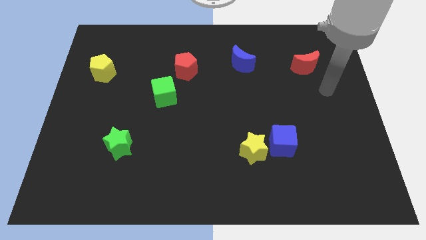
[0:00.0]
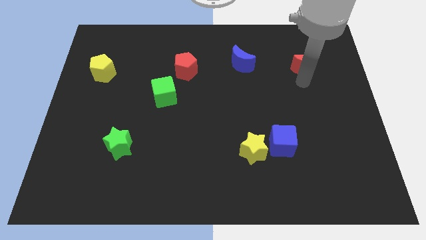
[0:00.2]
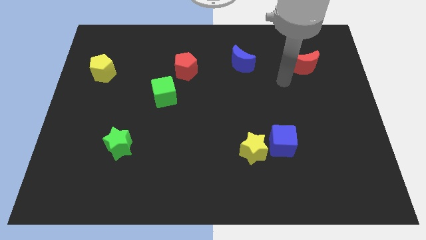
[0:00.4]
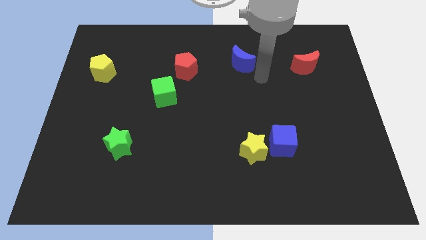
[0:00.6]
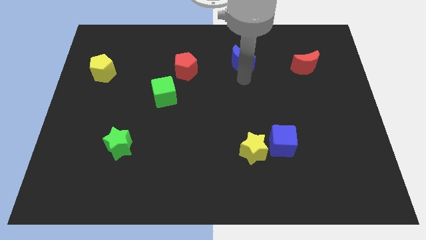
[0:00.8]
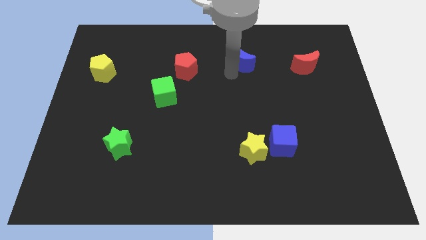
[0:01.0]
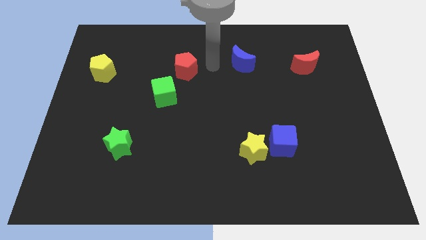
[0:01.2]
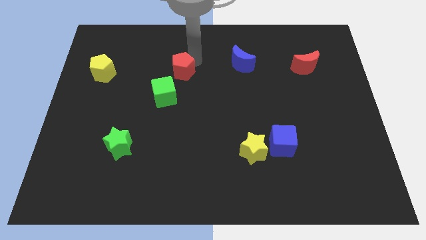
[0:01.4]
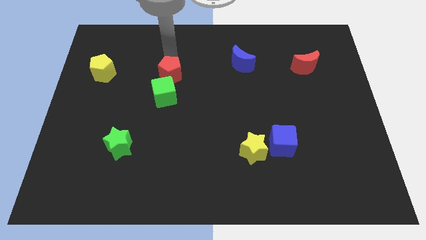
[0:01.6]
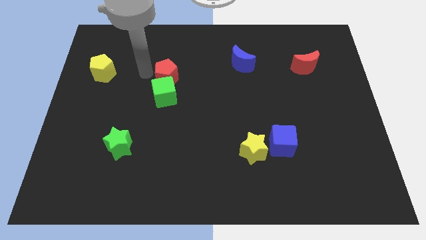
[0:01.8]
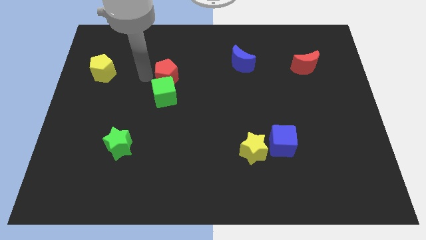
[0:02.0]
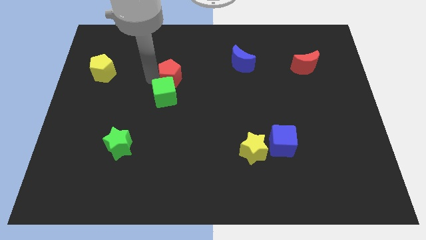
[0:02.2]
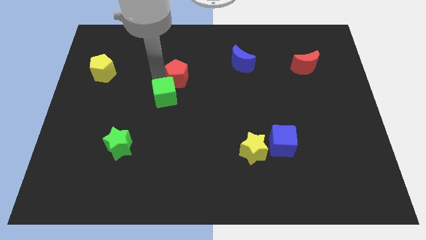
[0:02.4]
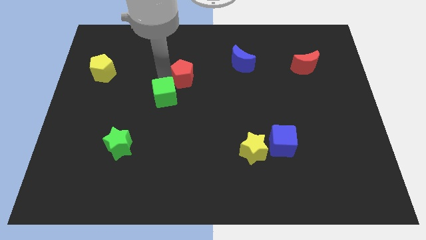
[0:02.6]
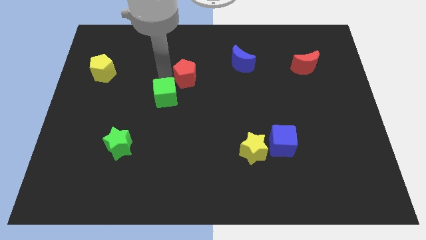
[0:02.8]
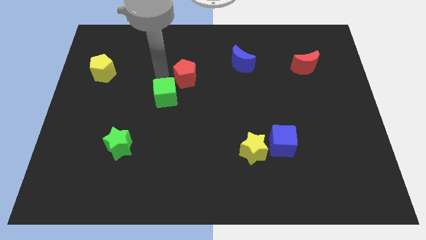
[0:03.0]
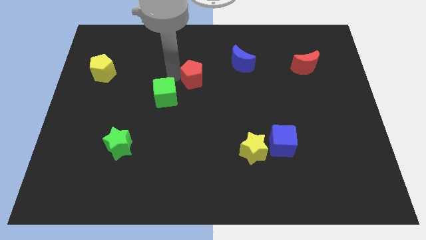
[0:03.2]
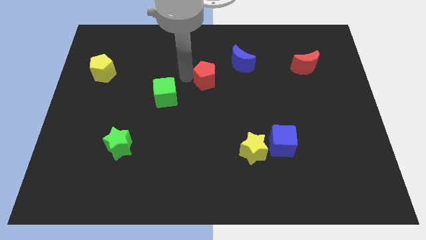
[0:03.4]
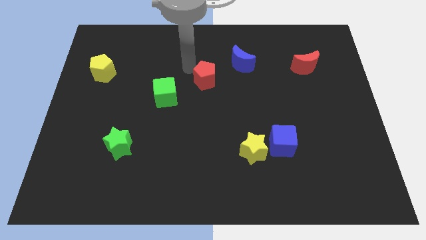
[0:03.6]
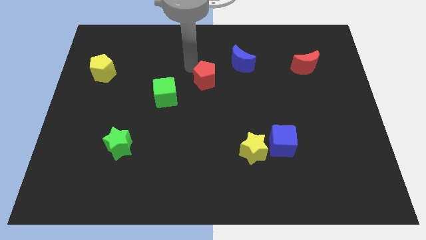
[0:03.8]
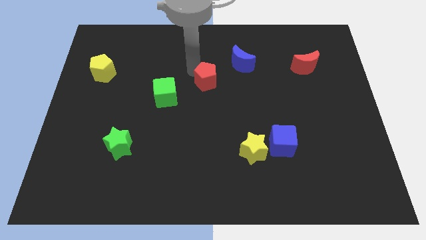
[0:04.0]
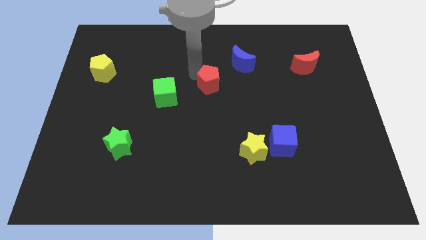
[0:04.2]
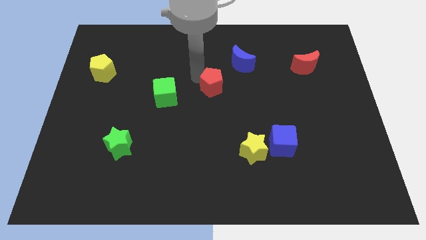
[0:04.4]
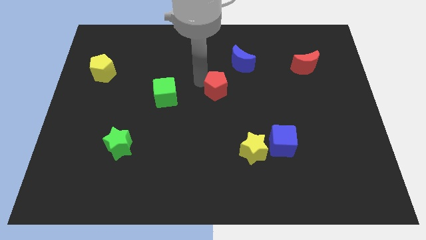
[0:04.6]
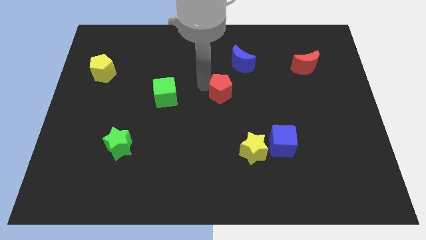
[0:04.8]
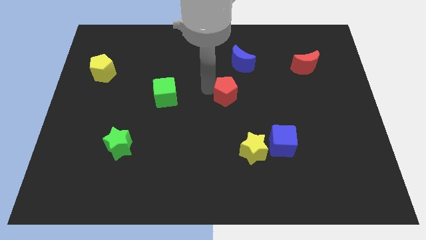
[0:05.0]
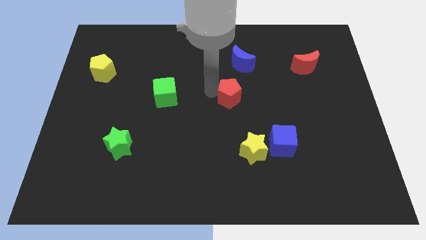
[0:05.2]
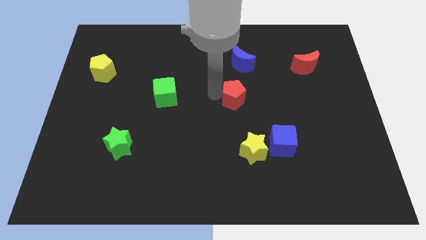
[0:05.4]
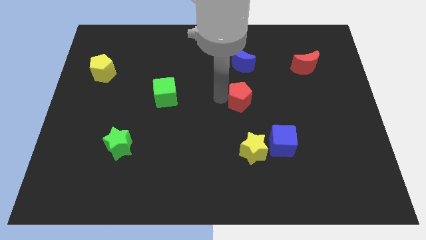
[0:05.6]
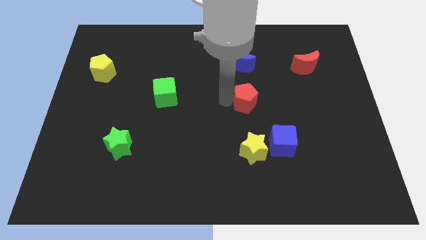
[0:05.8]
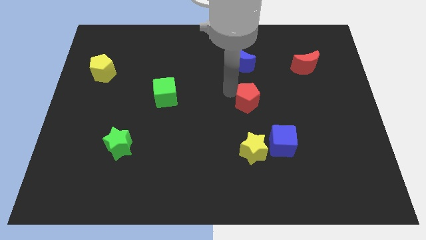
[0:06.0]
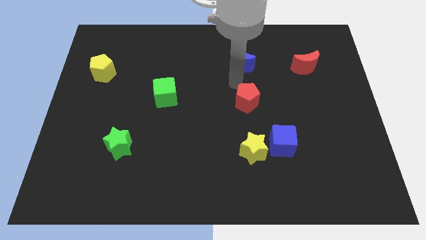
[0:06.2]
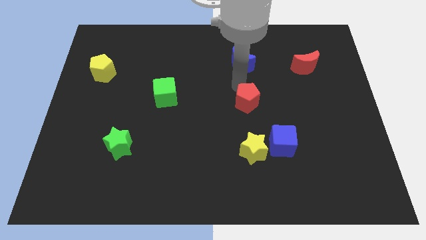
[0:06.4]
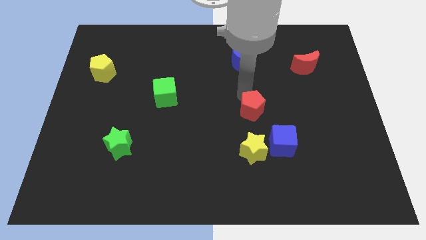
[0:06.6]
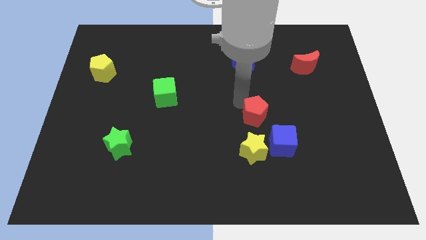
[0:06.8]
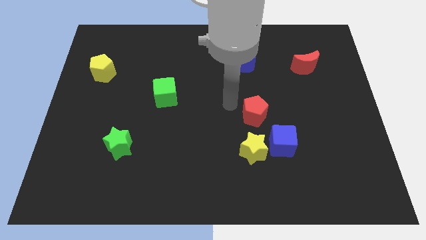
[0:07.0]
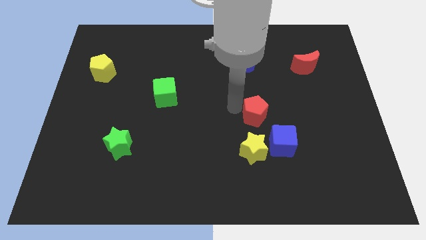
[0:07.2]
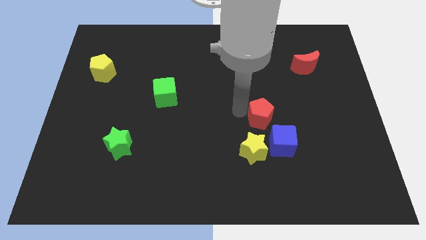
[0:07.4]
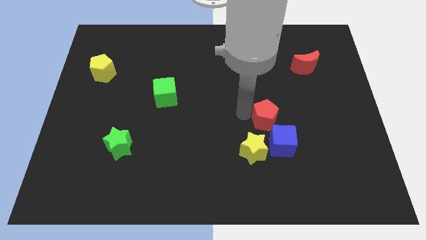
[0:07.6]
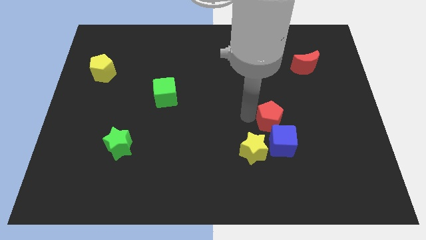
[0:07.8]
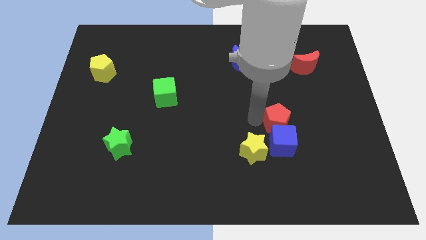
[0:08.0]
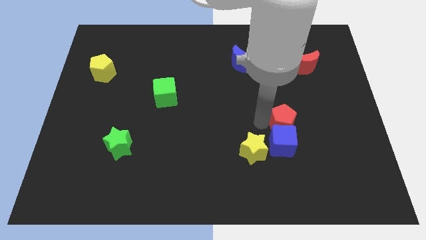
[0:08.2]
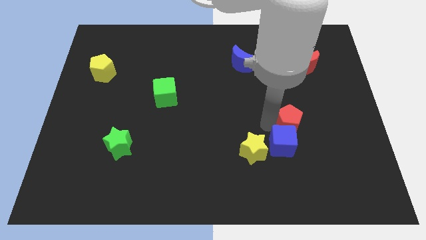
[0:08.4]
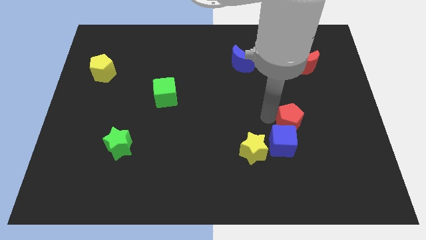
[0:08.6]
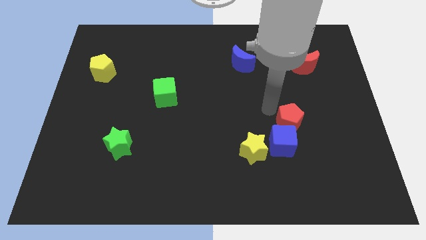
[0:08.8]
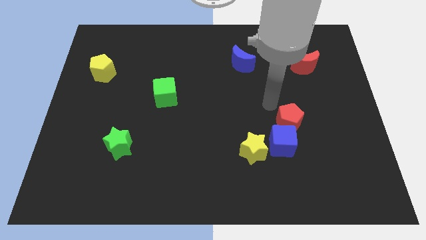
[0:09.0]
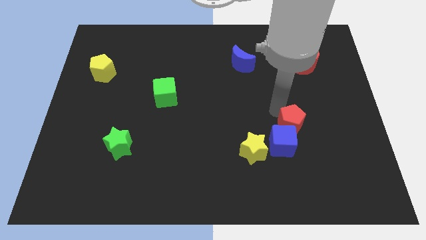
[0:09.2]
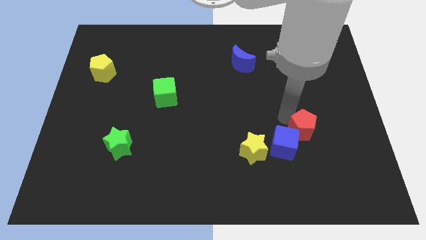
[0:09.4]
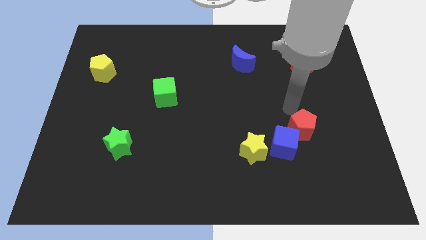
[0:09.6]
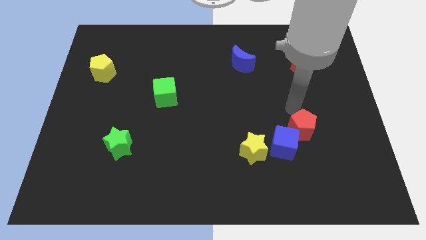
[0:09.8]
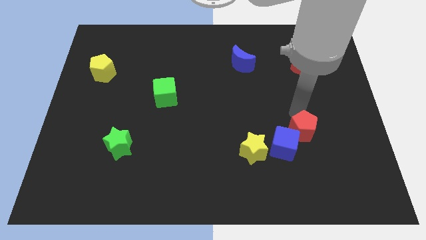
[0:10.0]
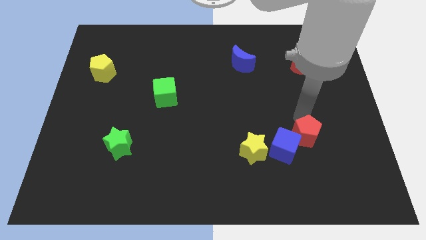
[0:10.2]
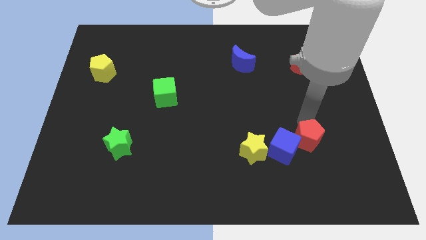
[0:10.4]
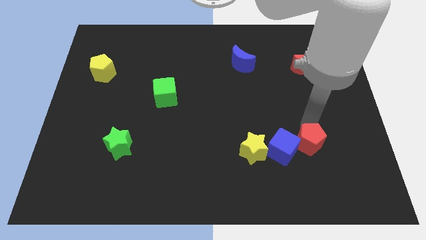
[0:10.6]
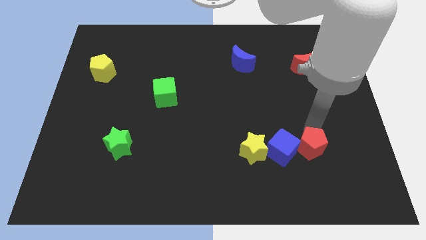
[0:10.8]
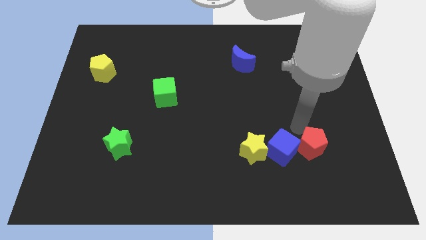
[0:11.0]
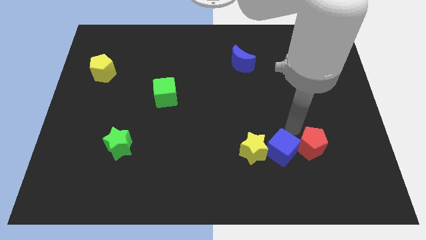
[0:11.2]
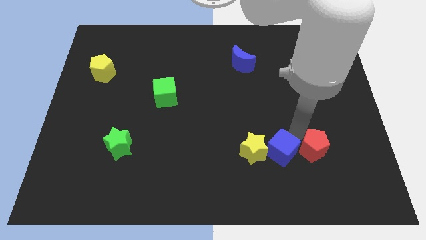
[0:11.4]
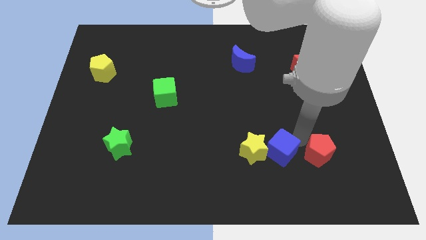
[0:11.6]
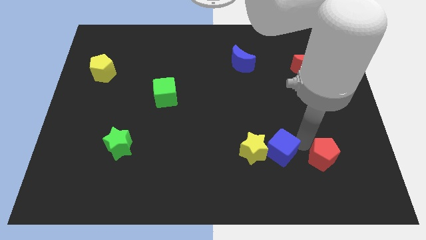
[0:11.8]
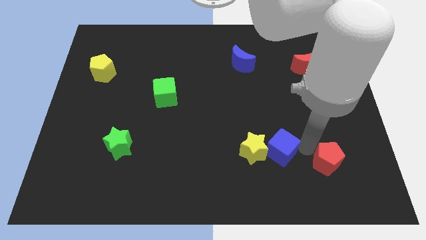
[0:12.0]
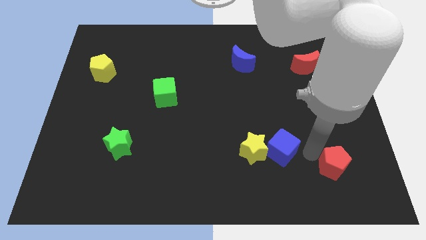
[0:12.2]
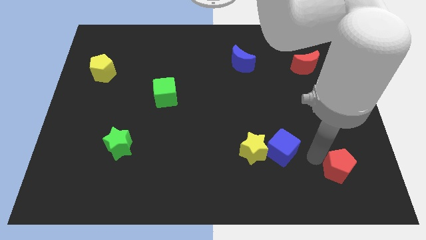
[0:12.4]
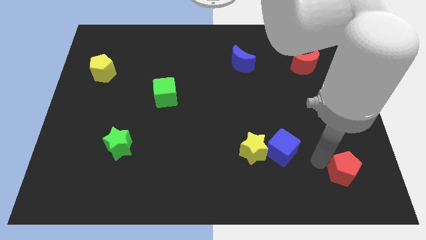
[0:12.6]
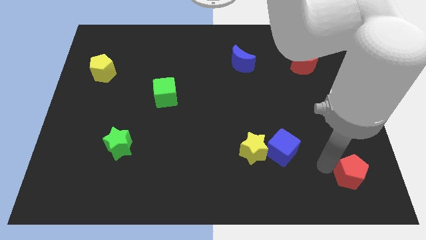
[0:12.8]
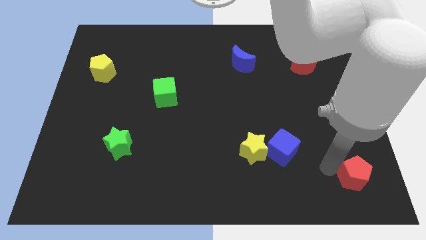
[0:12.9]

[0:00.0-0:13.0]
put the red pentagon to the bottom right corner
